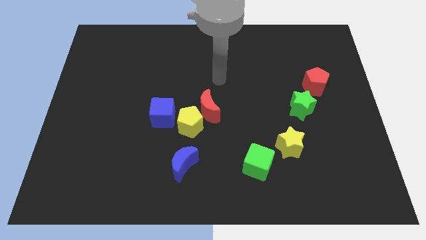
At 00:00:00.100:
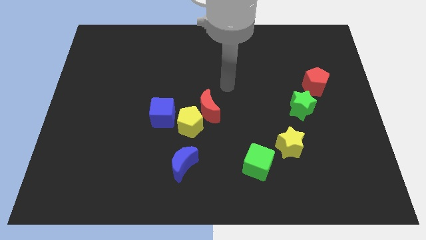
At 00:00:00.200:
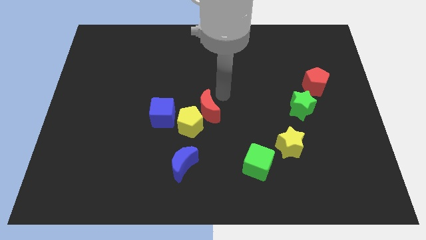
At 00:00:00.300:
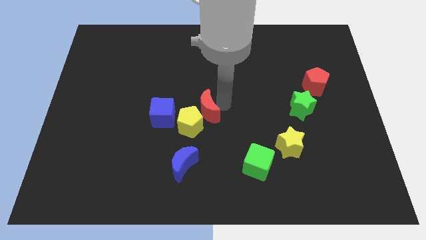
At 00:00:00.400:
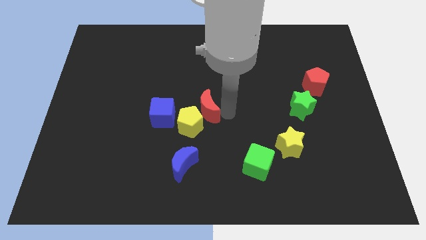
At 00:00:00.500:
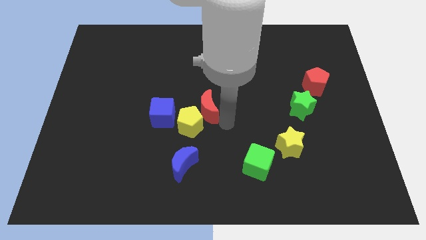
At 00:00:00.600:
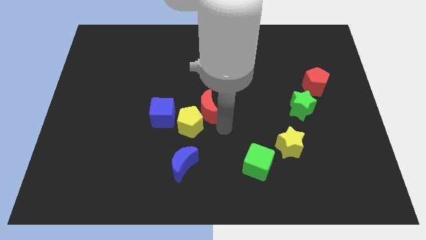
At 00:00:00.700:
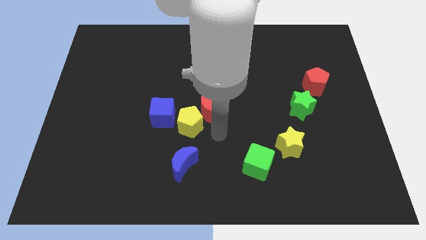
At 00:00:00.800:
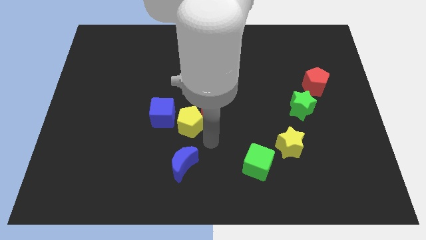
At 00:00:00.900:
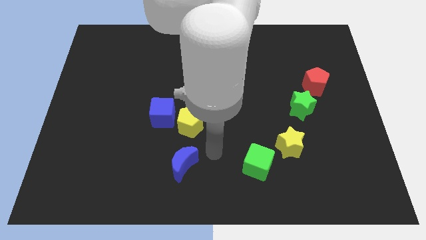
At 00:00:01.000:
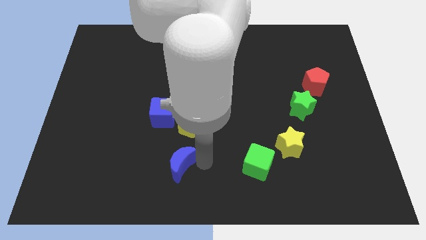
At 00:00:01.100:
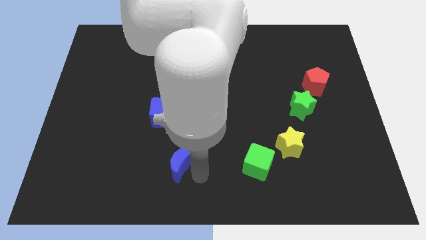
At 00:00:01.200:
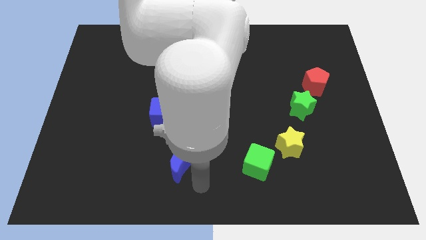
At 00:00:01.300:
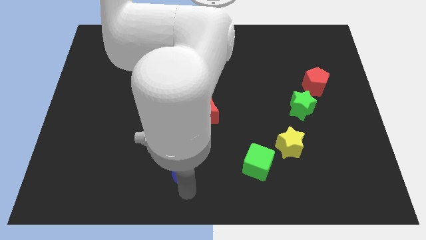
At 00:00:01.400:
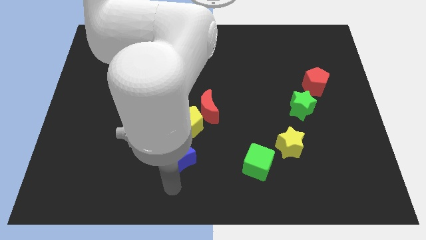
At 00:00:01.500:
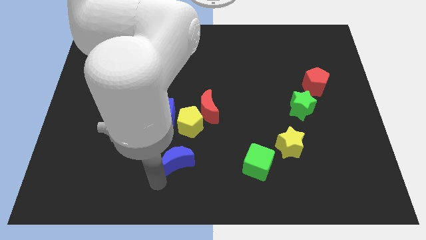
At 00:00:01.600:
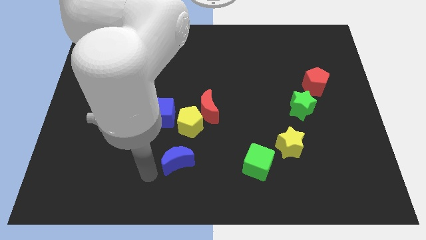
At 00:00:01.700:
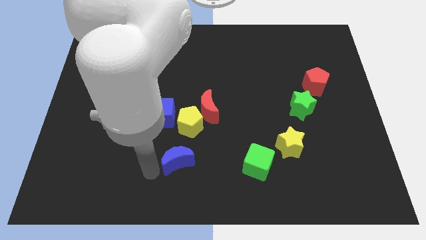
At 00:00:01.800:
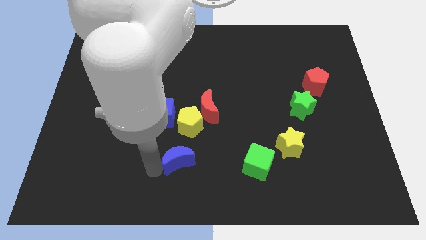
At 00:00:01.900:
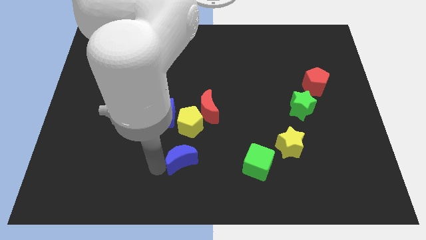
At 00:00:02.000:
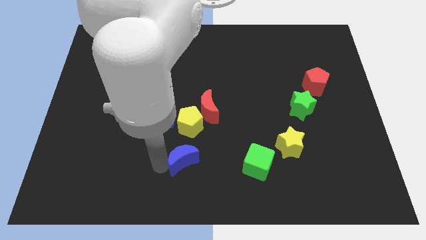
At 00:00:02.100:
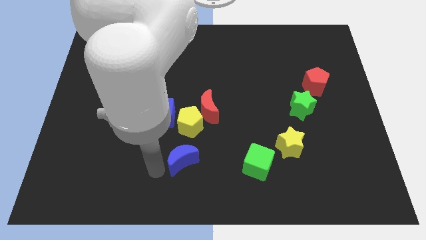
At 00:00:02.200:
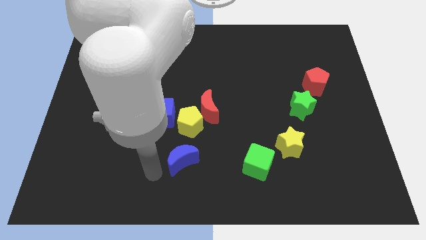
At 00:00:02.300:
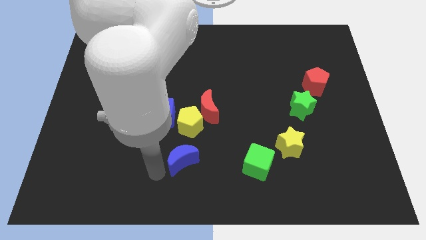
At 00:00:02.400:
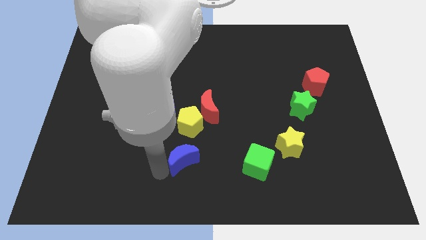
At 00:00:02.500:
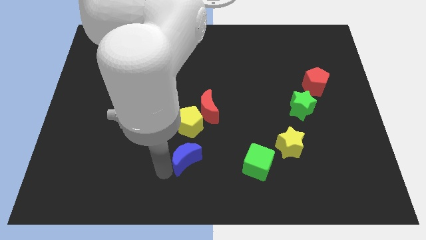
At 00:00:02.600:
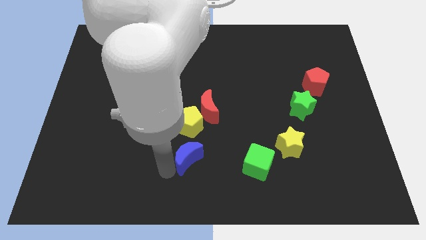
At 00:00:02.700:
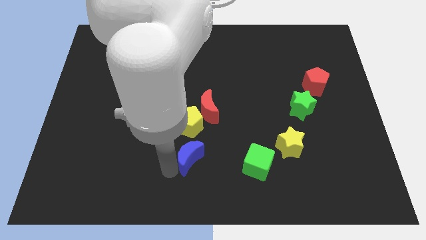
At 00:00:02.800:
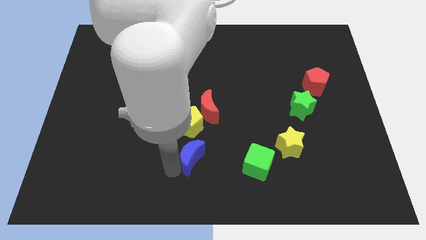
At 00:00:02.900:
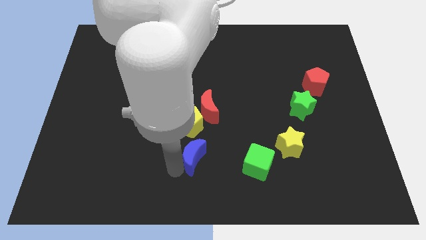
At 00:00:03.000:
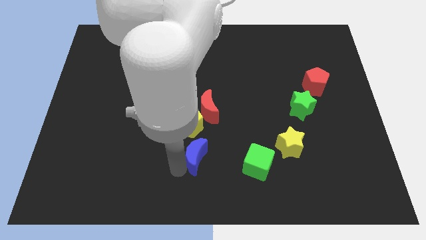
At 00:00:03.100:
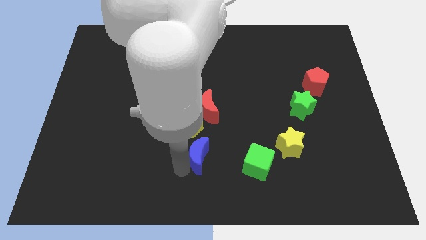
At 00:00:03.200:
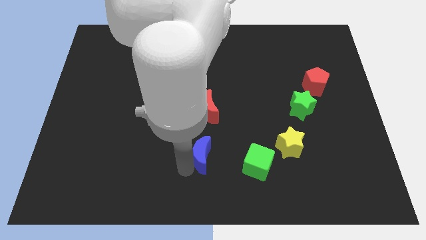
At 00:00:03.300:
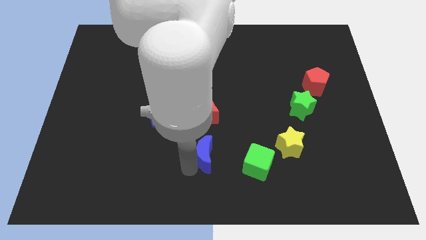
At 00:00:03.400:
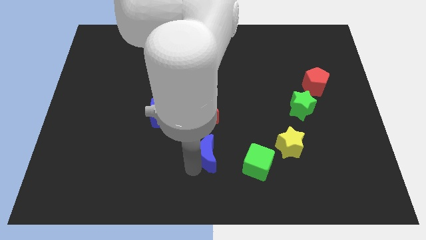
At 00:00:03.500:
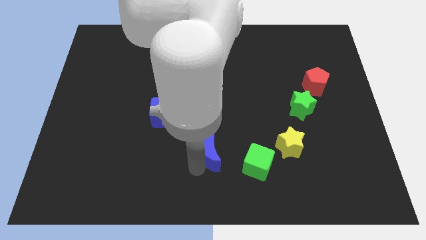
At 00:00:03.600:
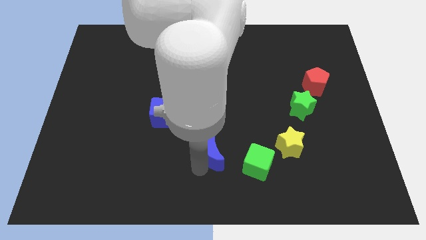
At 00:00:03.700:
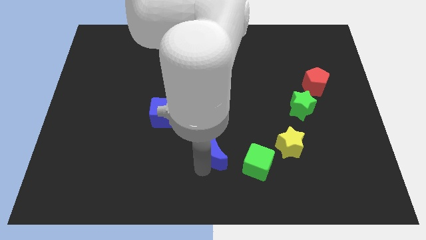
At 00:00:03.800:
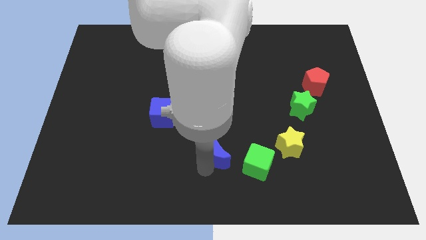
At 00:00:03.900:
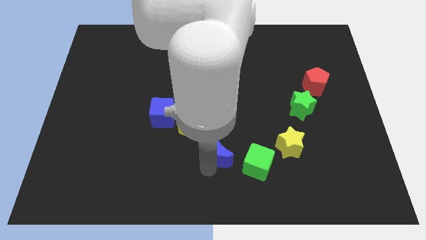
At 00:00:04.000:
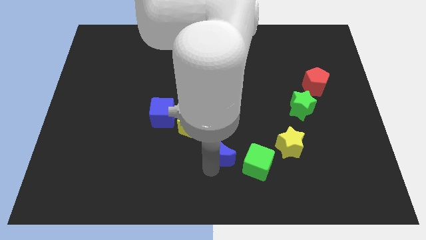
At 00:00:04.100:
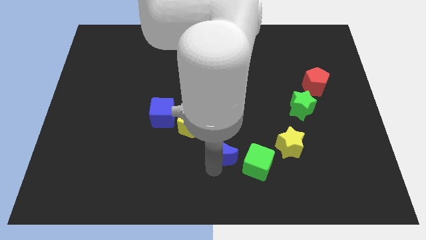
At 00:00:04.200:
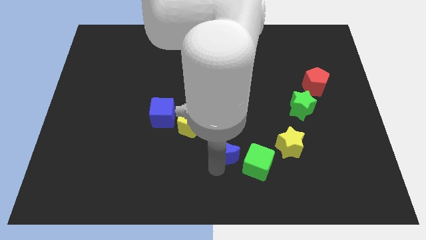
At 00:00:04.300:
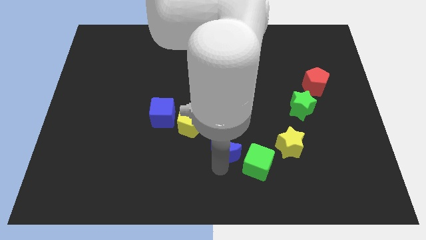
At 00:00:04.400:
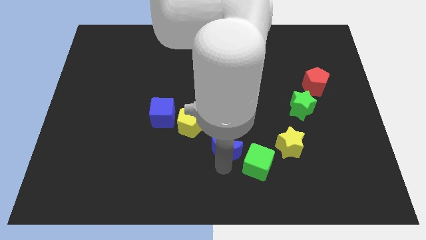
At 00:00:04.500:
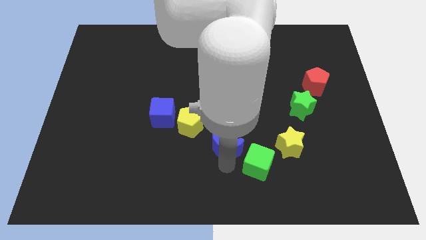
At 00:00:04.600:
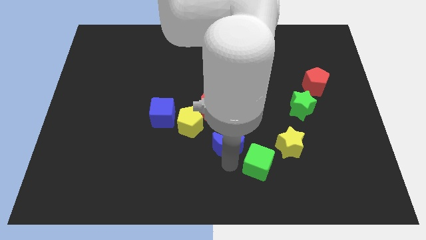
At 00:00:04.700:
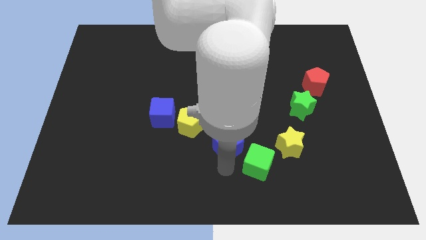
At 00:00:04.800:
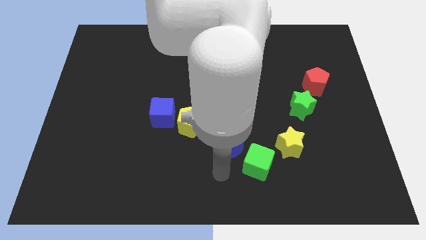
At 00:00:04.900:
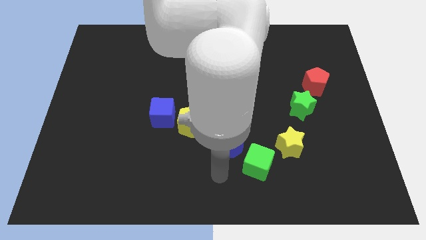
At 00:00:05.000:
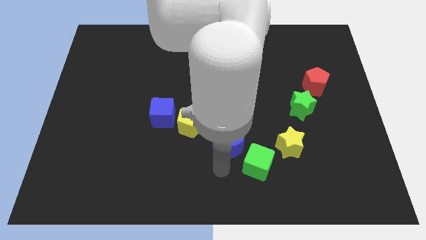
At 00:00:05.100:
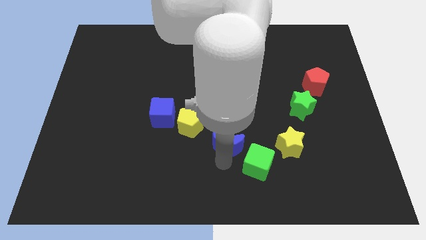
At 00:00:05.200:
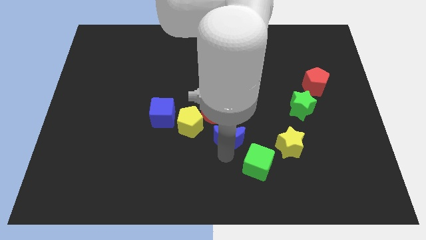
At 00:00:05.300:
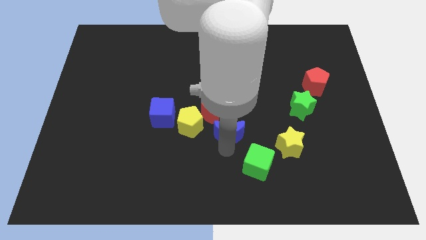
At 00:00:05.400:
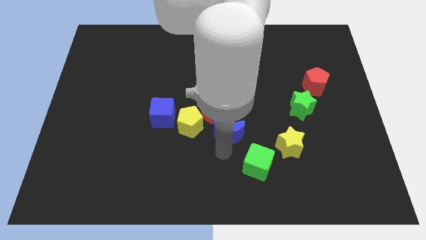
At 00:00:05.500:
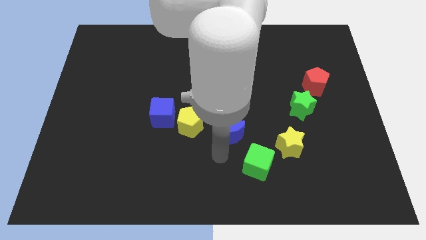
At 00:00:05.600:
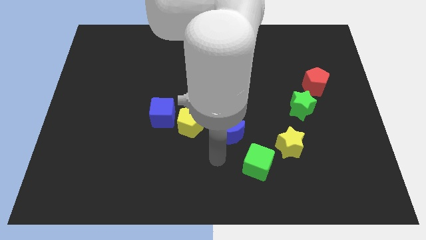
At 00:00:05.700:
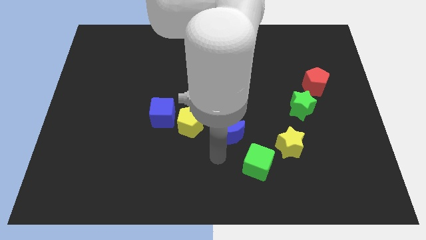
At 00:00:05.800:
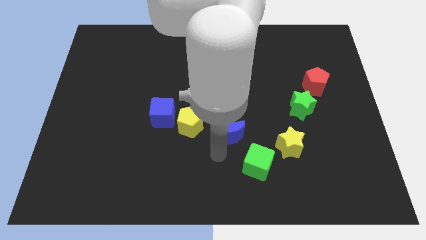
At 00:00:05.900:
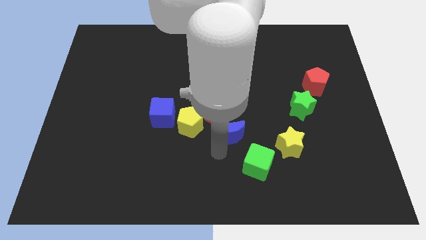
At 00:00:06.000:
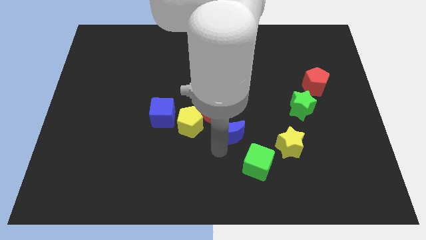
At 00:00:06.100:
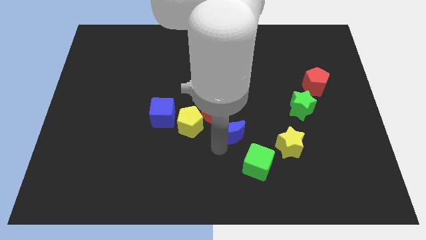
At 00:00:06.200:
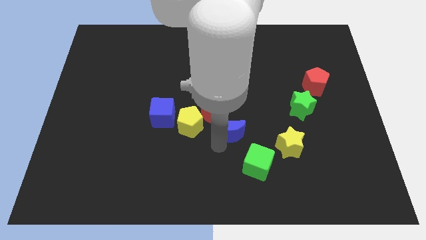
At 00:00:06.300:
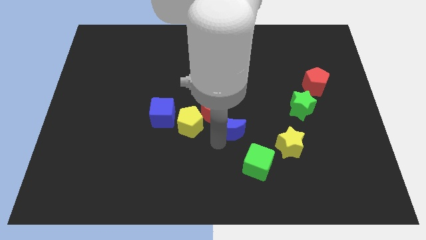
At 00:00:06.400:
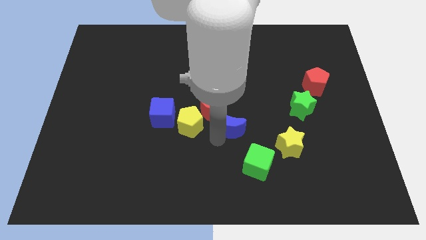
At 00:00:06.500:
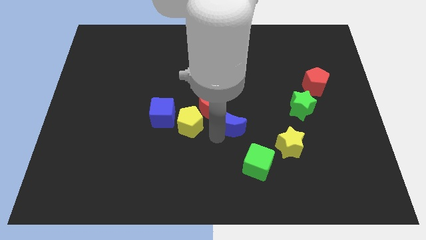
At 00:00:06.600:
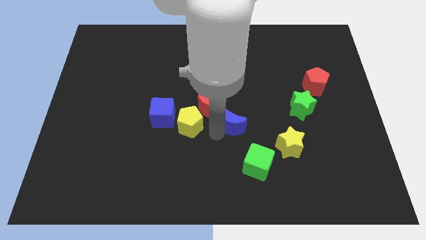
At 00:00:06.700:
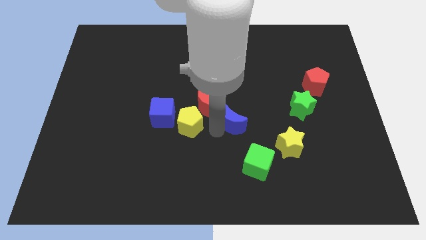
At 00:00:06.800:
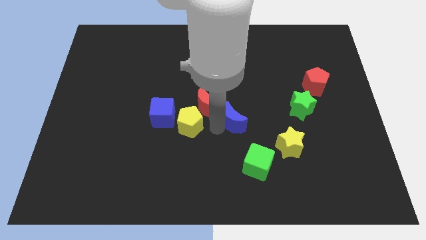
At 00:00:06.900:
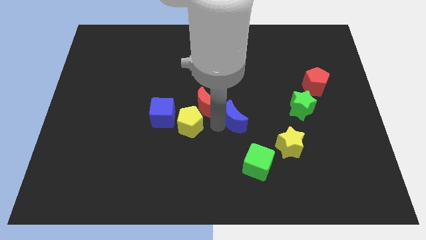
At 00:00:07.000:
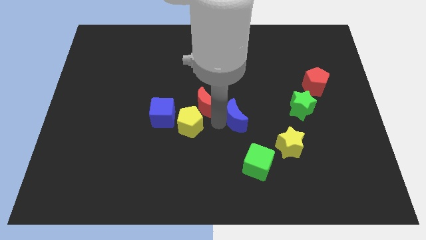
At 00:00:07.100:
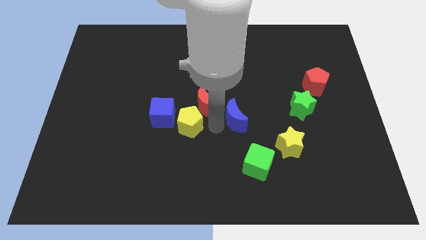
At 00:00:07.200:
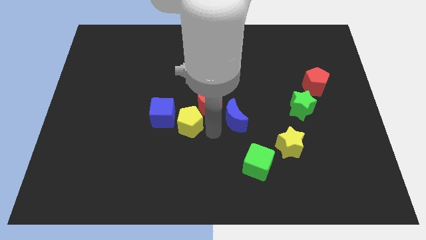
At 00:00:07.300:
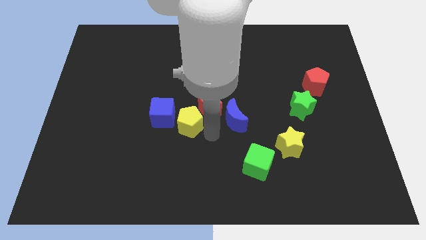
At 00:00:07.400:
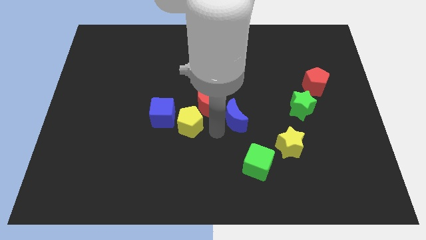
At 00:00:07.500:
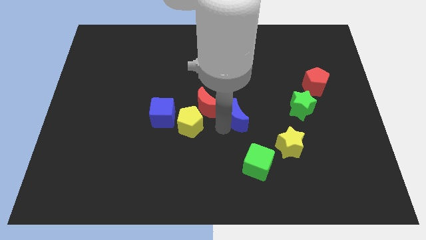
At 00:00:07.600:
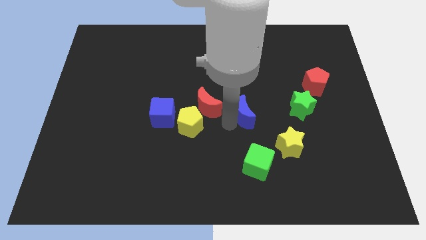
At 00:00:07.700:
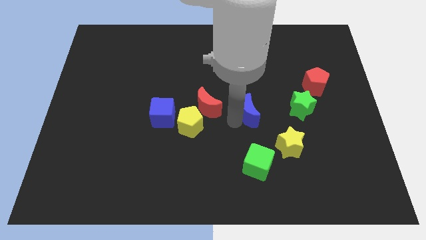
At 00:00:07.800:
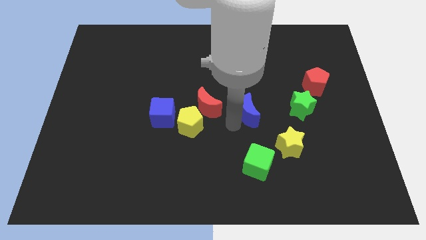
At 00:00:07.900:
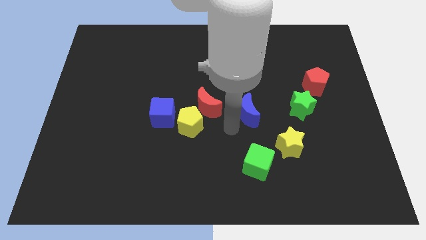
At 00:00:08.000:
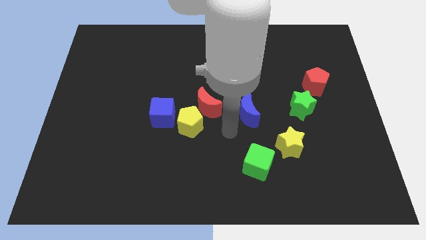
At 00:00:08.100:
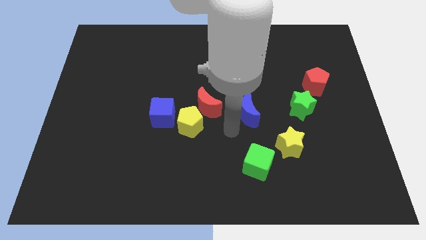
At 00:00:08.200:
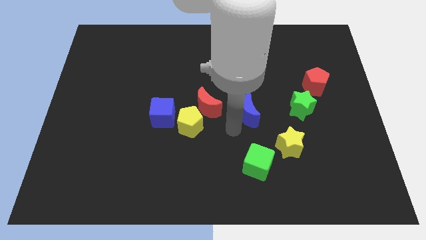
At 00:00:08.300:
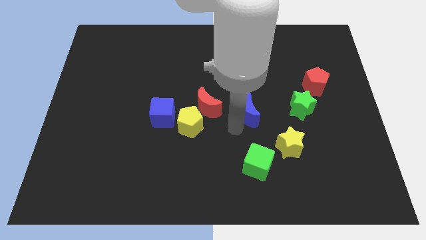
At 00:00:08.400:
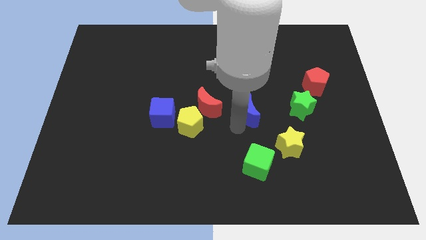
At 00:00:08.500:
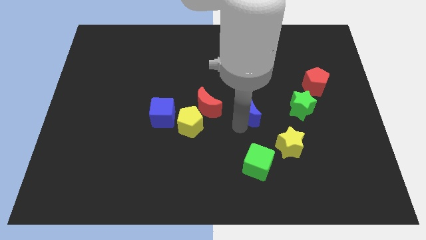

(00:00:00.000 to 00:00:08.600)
push the blue moon upwards and to the right diagonally
